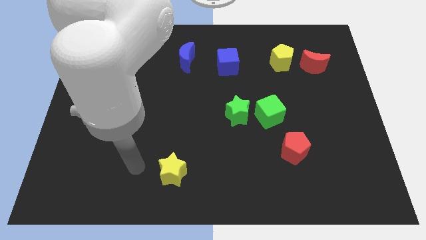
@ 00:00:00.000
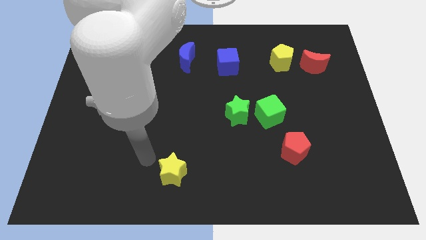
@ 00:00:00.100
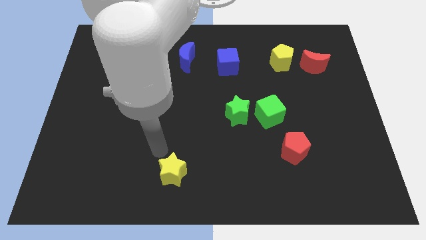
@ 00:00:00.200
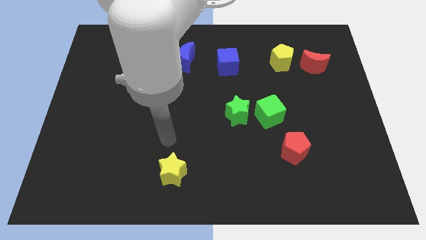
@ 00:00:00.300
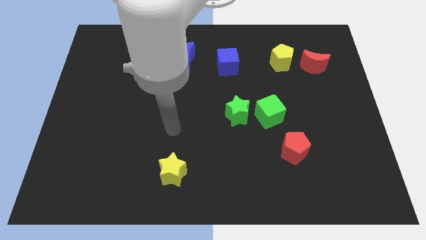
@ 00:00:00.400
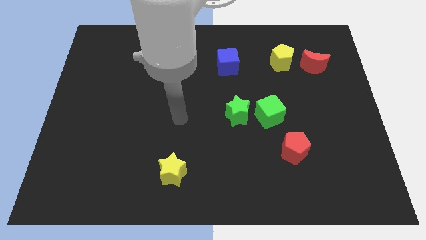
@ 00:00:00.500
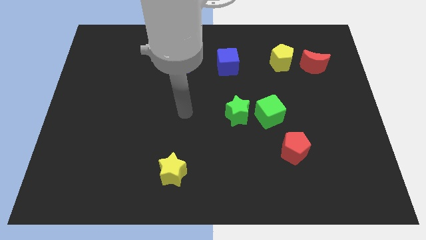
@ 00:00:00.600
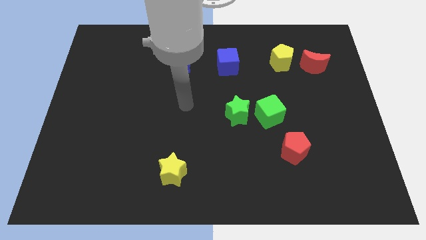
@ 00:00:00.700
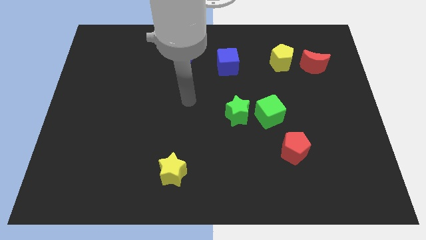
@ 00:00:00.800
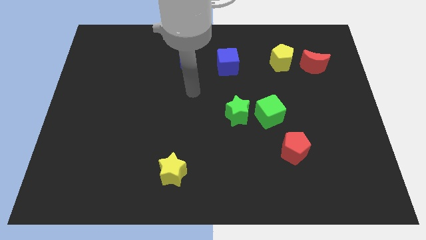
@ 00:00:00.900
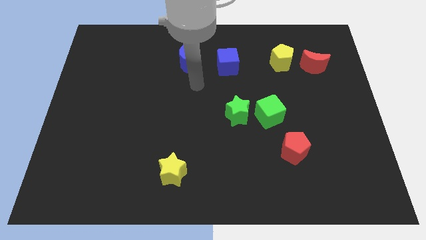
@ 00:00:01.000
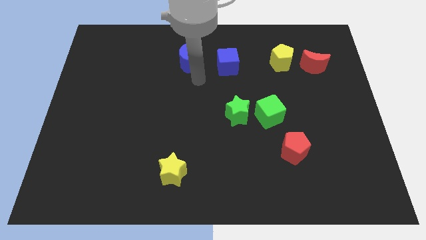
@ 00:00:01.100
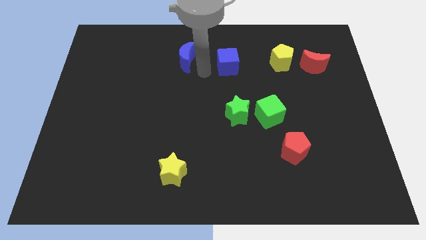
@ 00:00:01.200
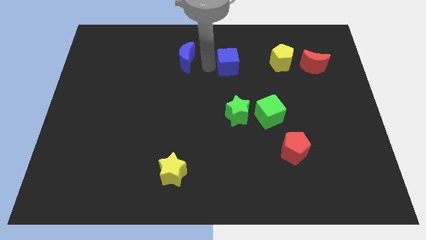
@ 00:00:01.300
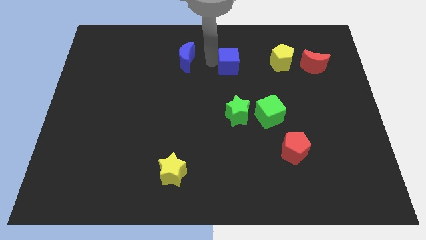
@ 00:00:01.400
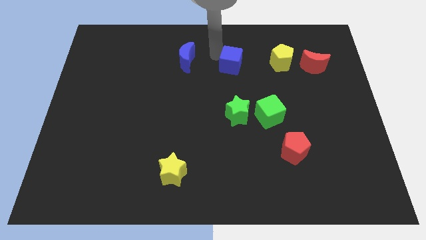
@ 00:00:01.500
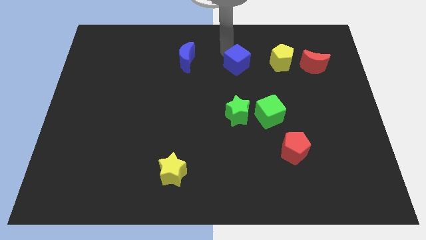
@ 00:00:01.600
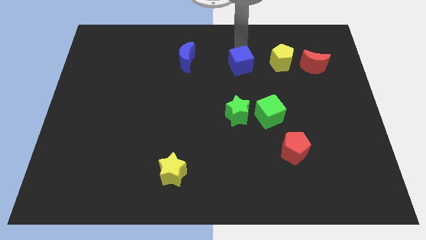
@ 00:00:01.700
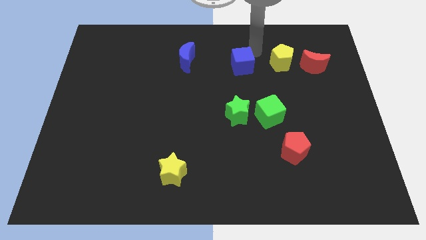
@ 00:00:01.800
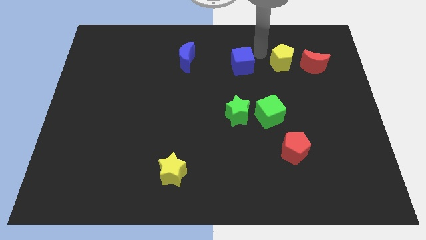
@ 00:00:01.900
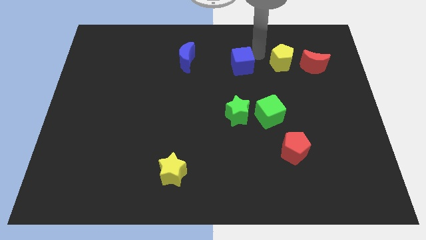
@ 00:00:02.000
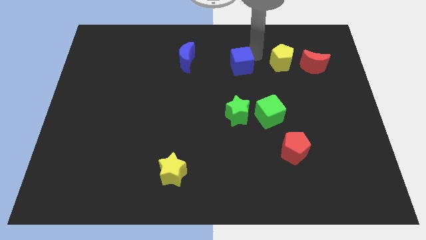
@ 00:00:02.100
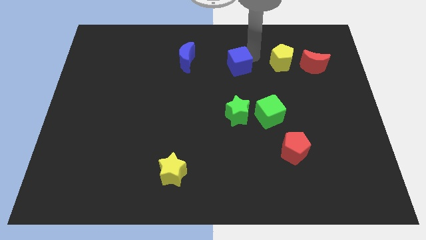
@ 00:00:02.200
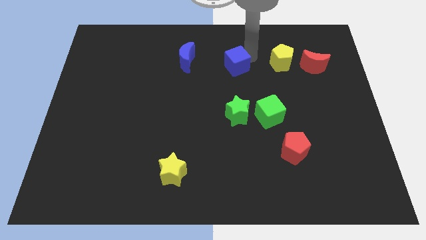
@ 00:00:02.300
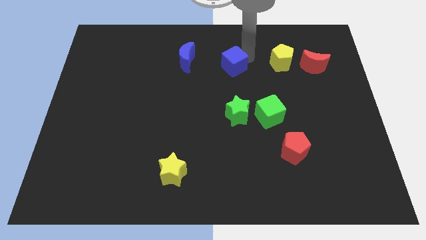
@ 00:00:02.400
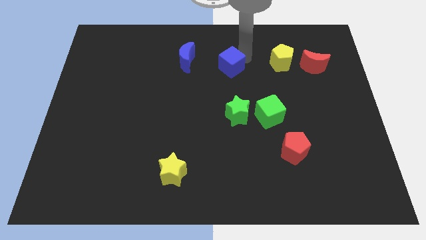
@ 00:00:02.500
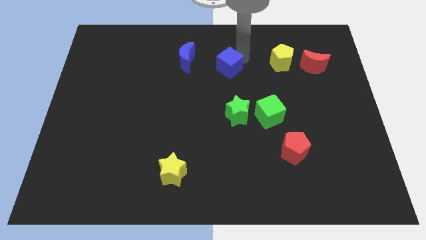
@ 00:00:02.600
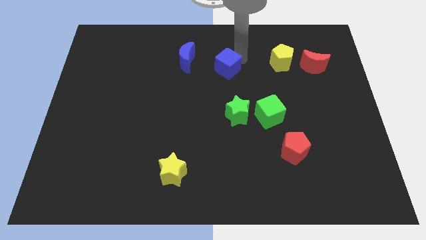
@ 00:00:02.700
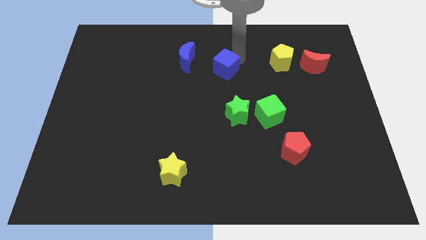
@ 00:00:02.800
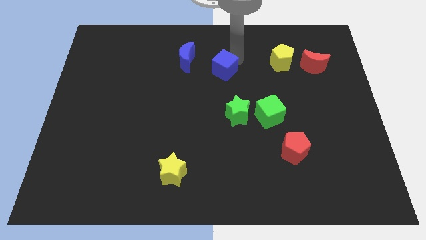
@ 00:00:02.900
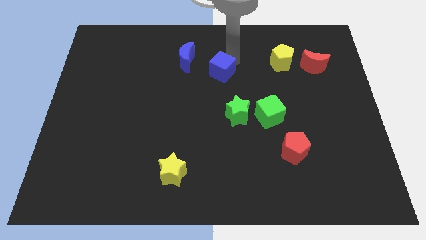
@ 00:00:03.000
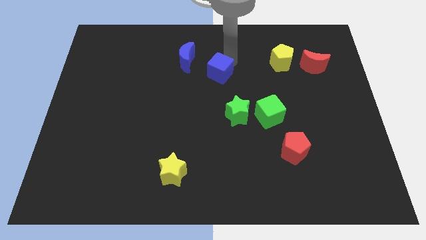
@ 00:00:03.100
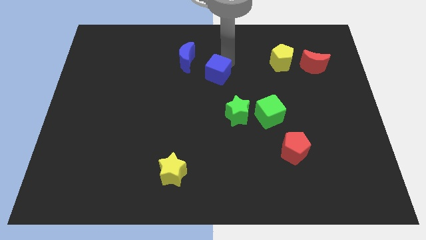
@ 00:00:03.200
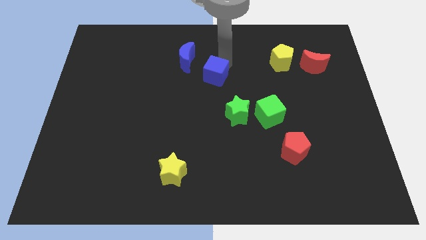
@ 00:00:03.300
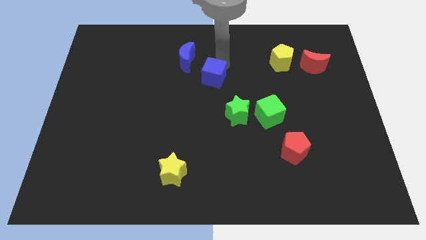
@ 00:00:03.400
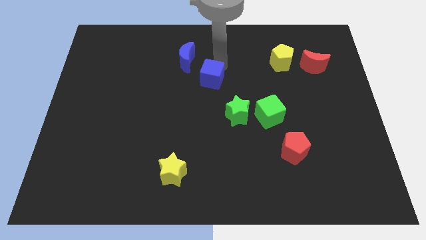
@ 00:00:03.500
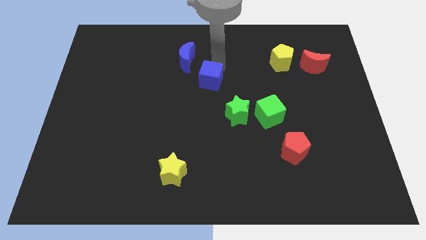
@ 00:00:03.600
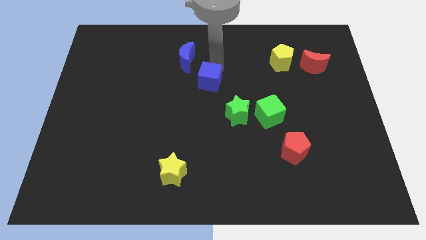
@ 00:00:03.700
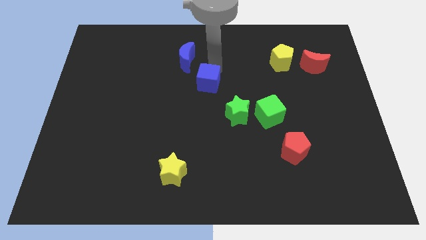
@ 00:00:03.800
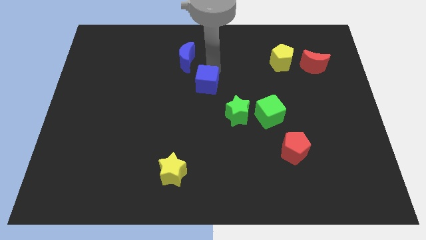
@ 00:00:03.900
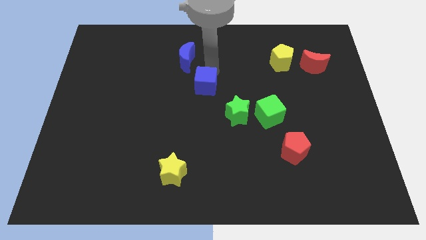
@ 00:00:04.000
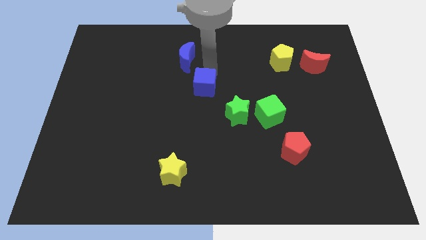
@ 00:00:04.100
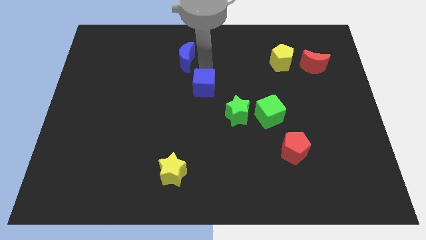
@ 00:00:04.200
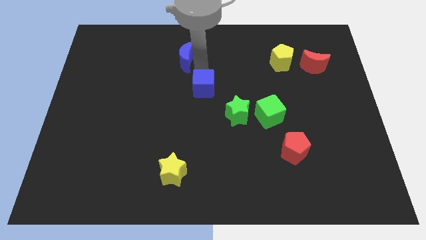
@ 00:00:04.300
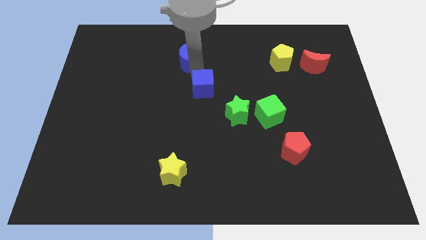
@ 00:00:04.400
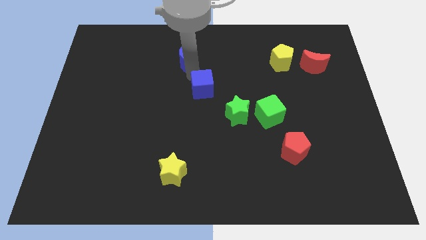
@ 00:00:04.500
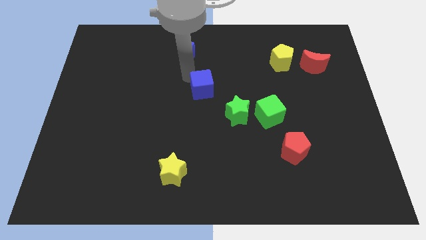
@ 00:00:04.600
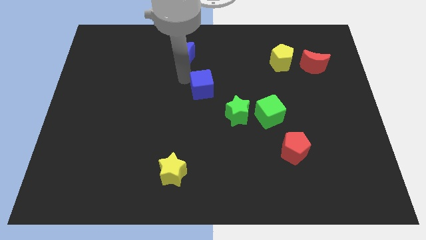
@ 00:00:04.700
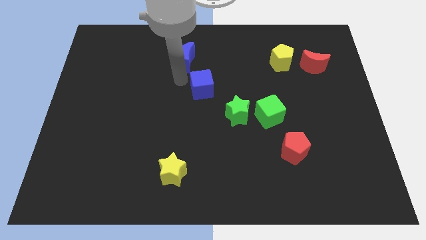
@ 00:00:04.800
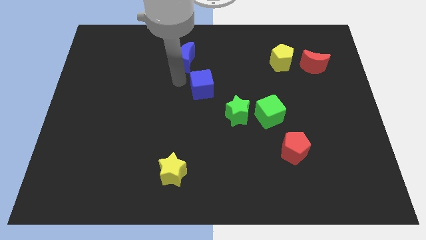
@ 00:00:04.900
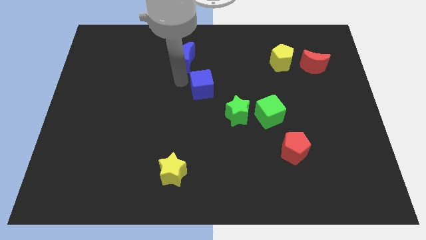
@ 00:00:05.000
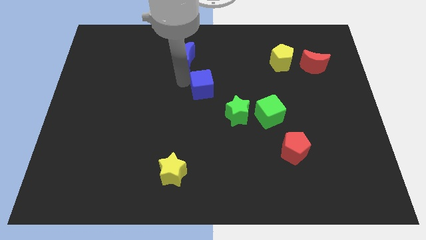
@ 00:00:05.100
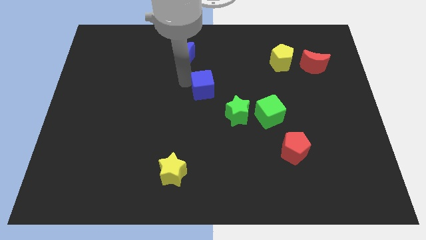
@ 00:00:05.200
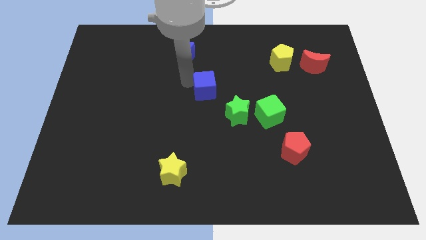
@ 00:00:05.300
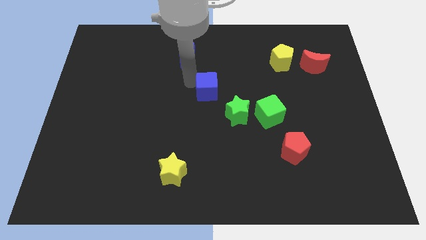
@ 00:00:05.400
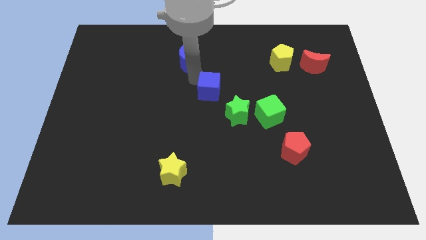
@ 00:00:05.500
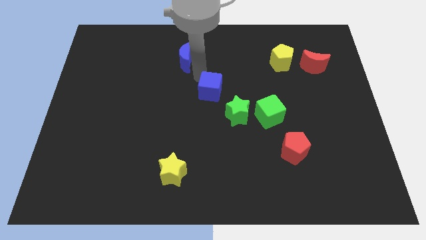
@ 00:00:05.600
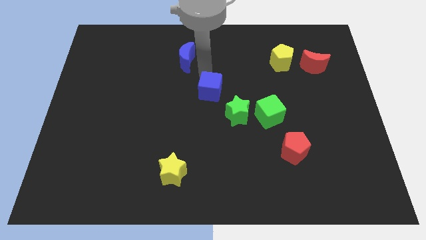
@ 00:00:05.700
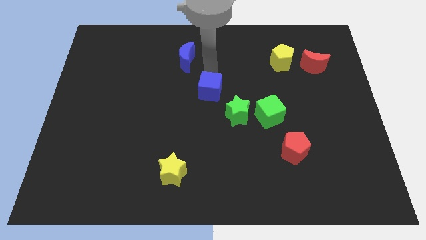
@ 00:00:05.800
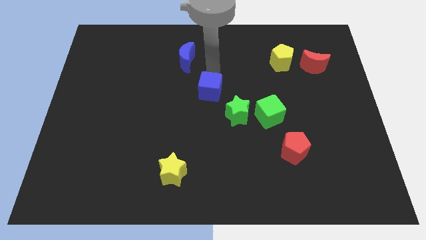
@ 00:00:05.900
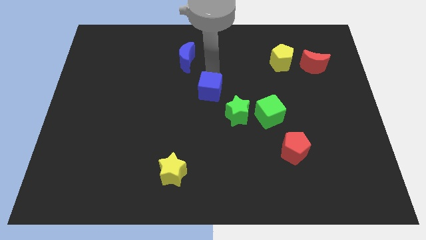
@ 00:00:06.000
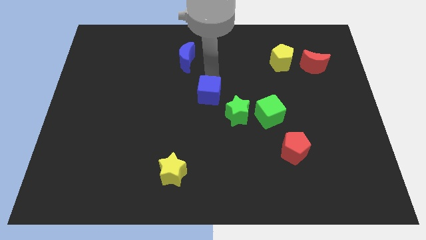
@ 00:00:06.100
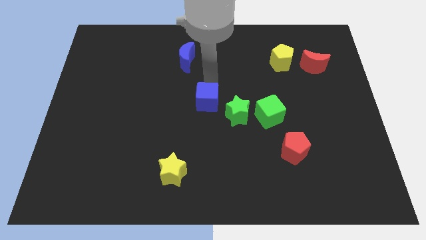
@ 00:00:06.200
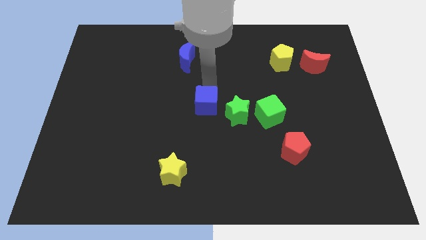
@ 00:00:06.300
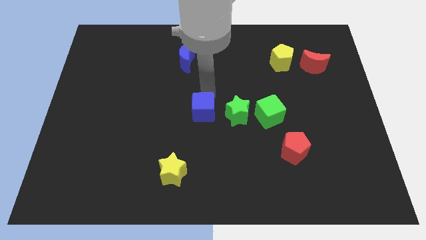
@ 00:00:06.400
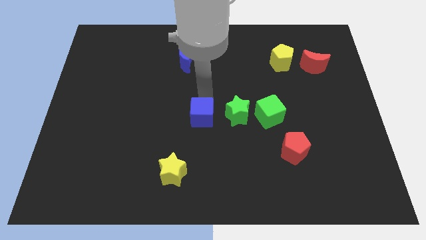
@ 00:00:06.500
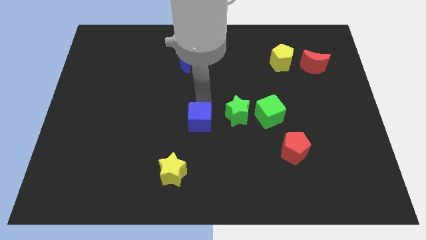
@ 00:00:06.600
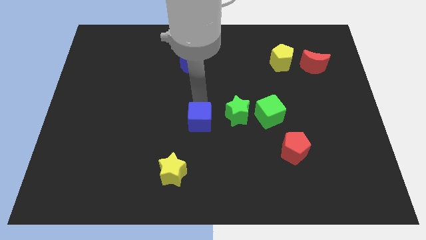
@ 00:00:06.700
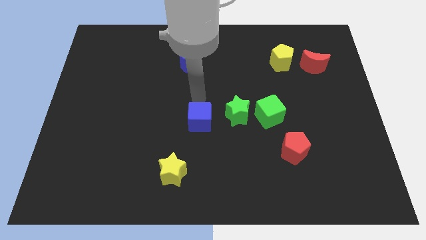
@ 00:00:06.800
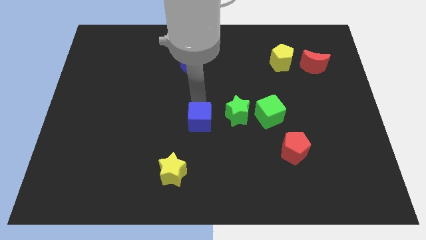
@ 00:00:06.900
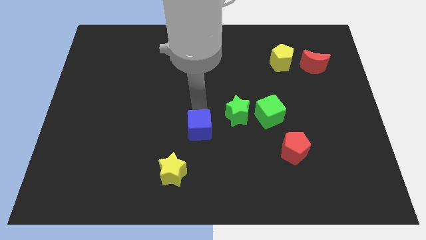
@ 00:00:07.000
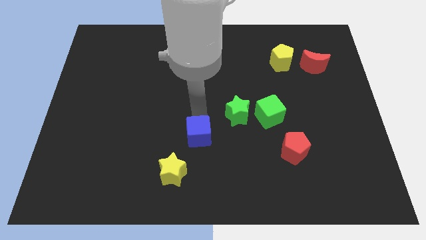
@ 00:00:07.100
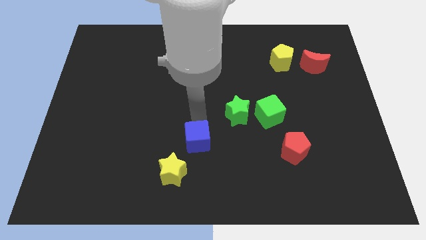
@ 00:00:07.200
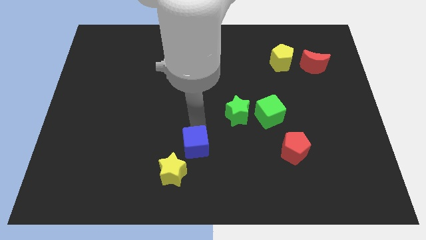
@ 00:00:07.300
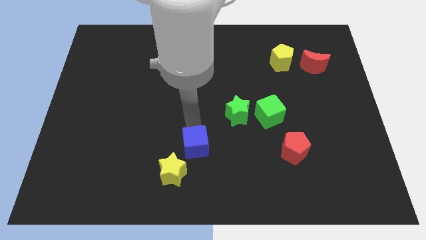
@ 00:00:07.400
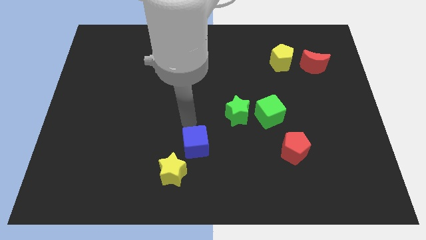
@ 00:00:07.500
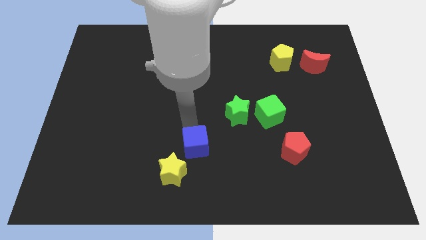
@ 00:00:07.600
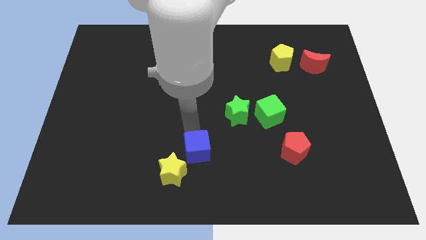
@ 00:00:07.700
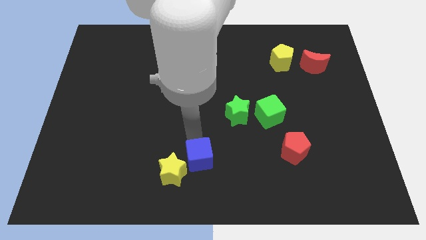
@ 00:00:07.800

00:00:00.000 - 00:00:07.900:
put the blue cube to the bottom side
